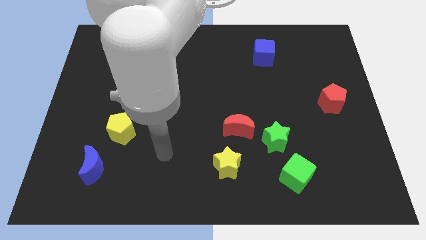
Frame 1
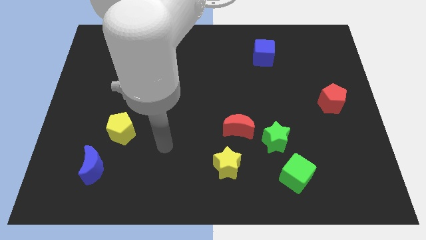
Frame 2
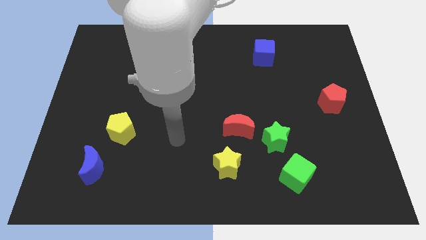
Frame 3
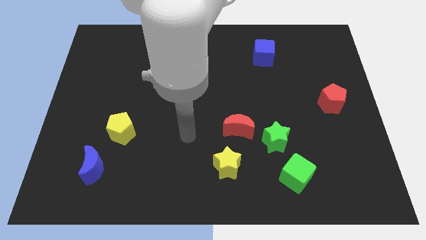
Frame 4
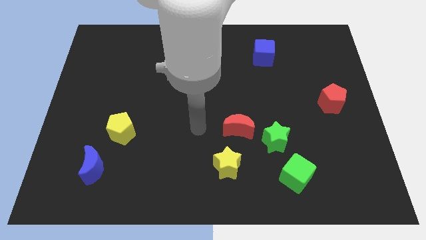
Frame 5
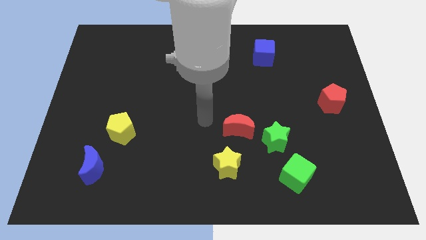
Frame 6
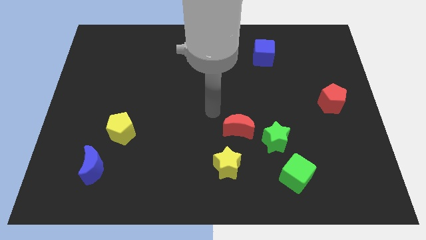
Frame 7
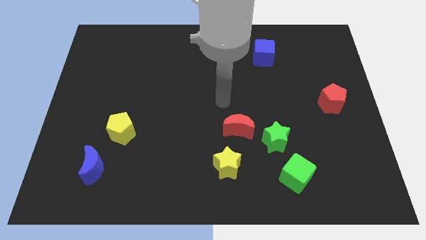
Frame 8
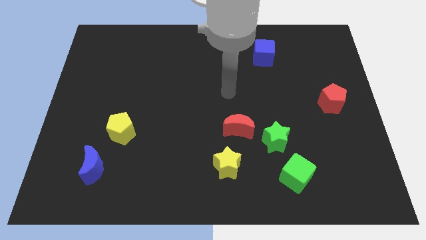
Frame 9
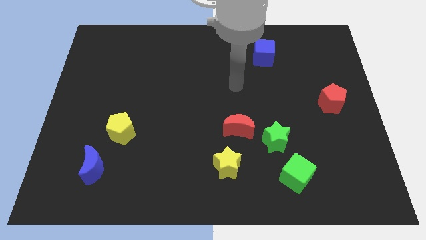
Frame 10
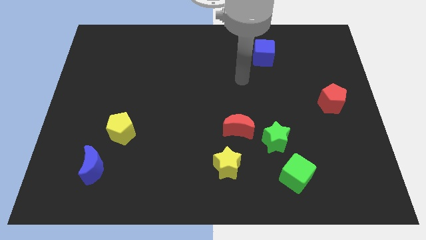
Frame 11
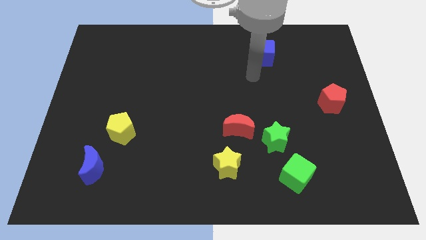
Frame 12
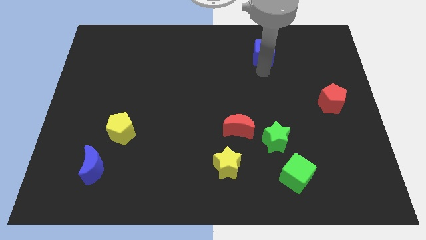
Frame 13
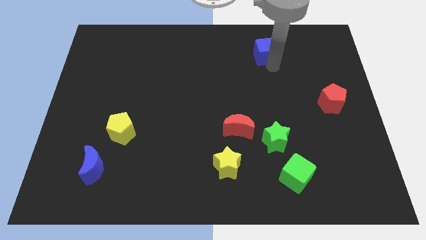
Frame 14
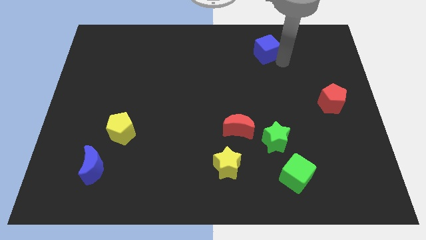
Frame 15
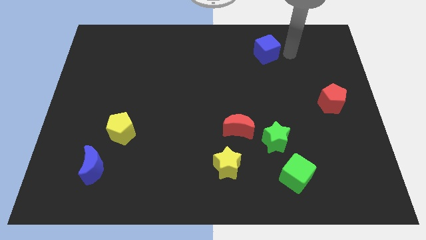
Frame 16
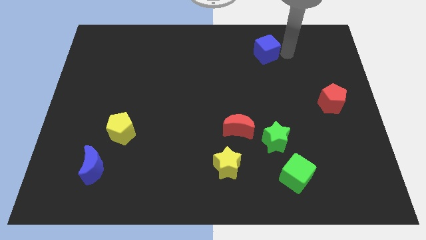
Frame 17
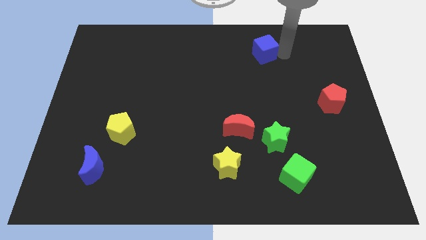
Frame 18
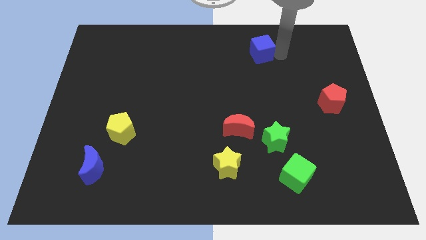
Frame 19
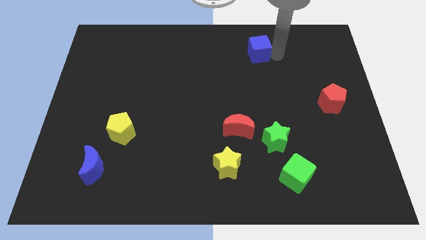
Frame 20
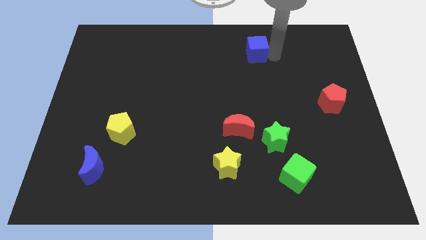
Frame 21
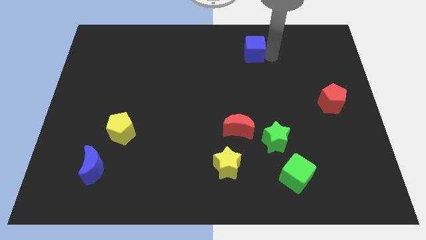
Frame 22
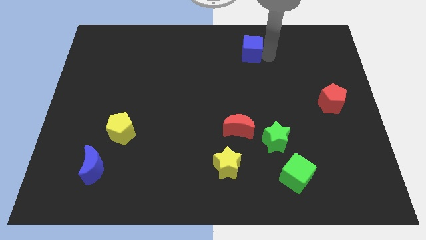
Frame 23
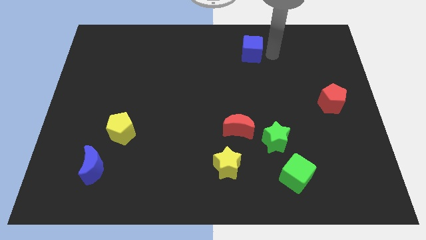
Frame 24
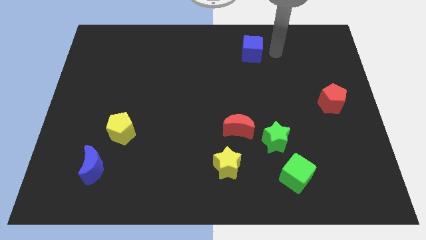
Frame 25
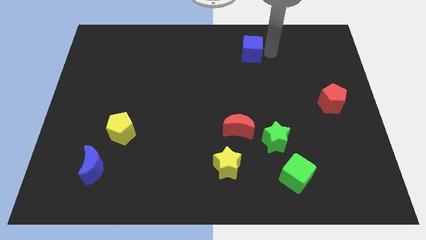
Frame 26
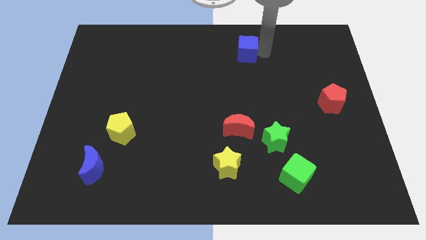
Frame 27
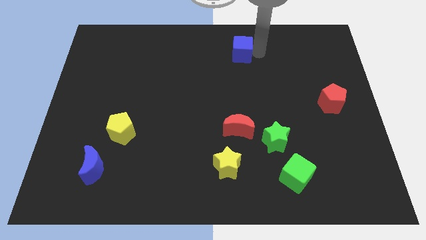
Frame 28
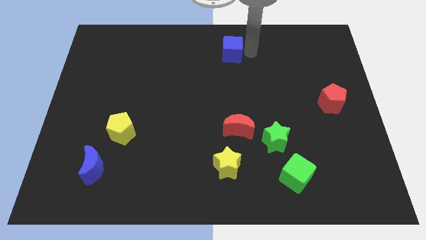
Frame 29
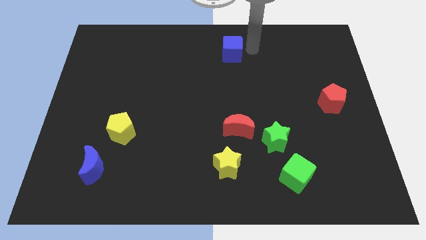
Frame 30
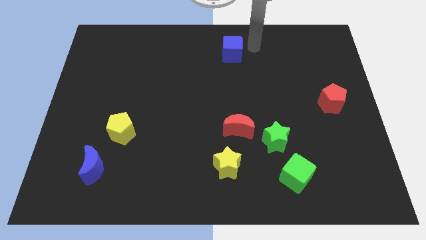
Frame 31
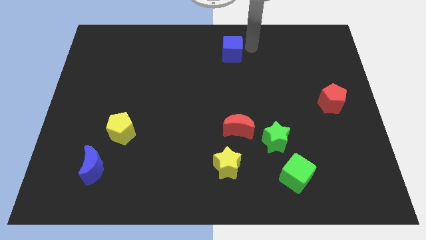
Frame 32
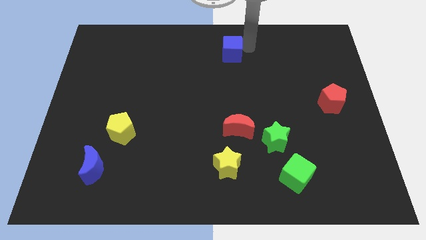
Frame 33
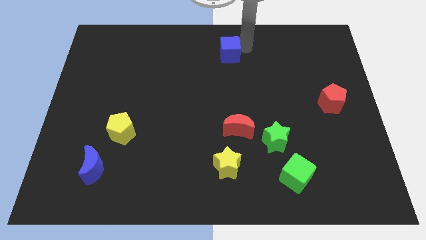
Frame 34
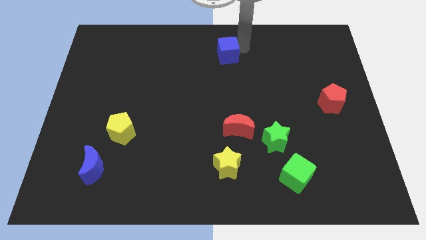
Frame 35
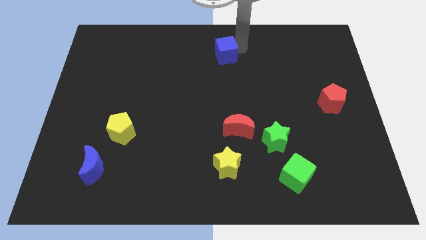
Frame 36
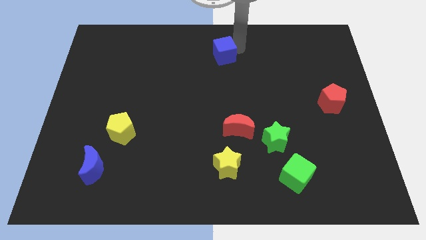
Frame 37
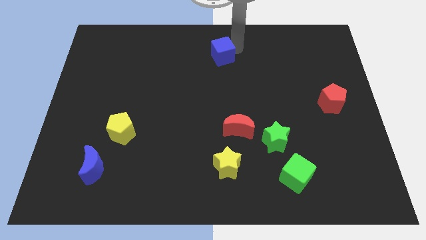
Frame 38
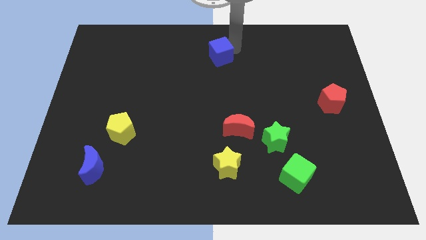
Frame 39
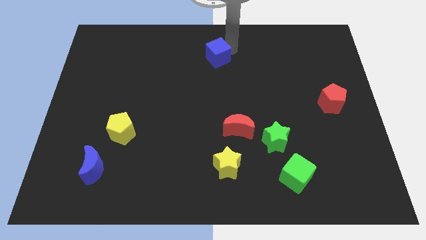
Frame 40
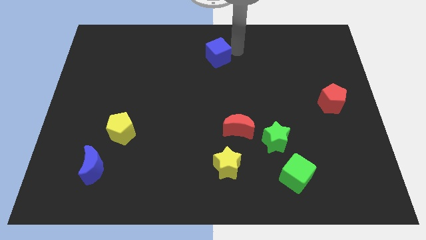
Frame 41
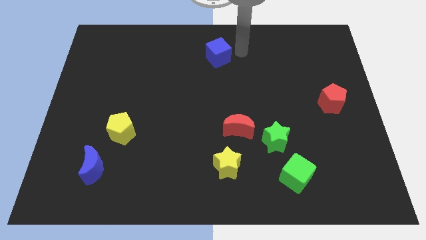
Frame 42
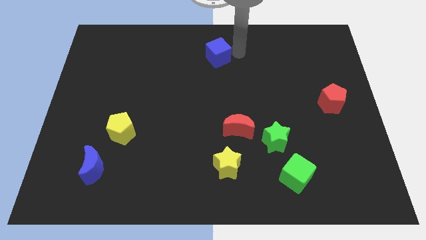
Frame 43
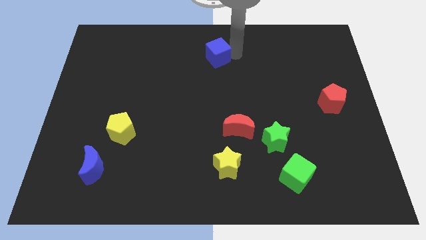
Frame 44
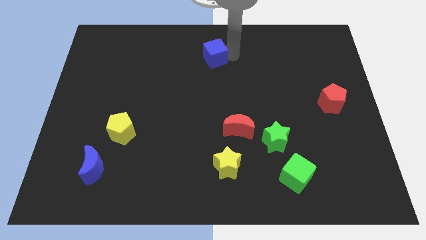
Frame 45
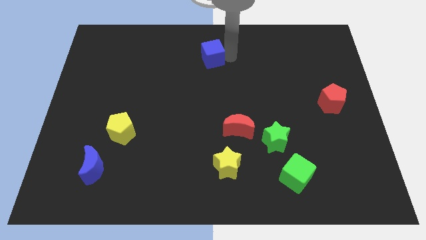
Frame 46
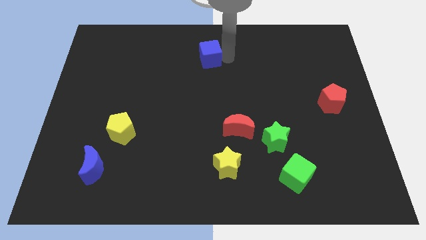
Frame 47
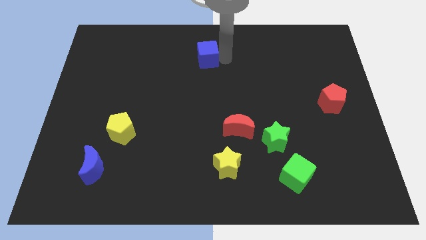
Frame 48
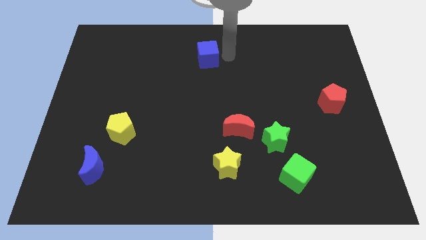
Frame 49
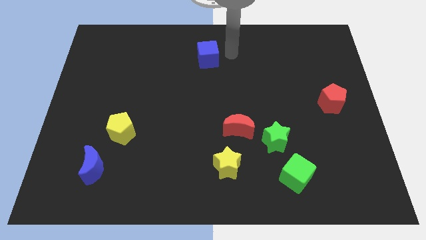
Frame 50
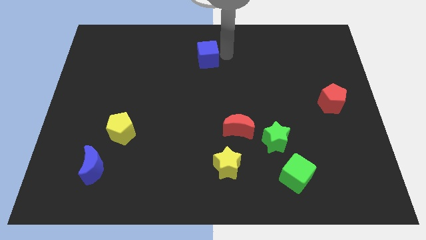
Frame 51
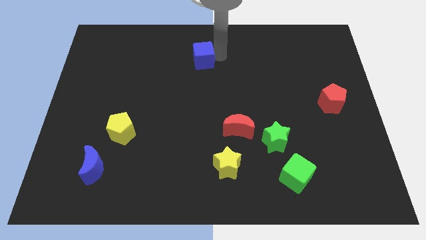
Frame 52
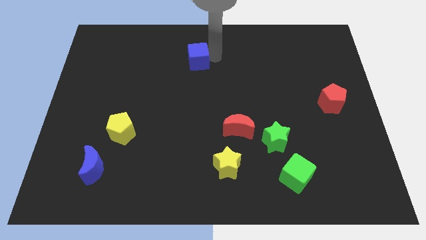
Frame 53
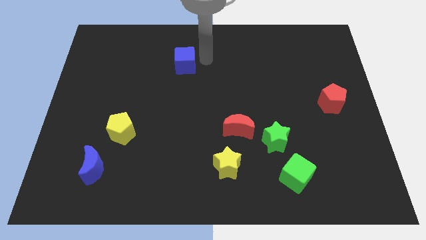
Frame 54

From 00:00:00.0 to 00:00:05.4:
slide the blue cube left

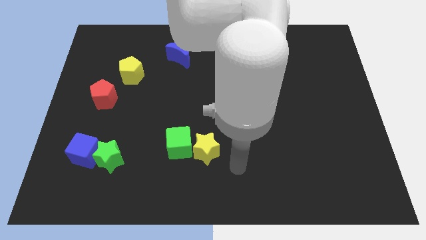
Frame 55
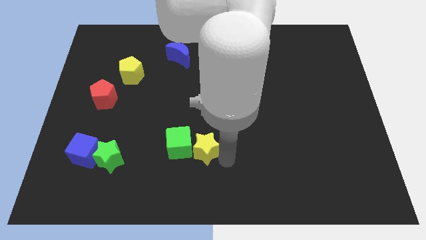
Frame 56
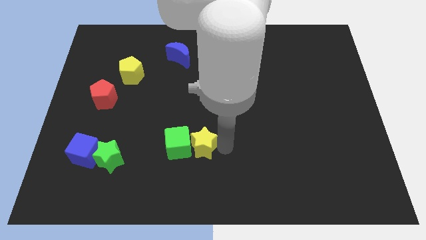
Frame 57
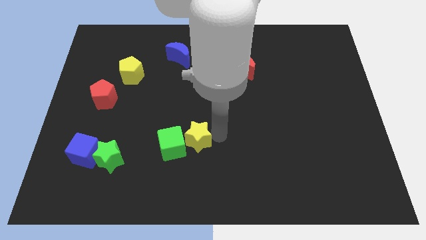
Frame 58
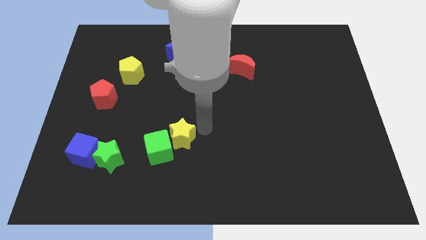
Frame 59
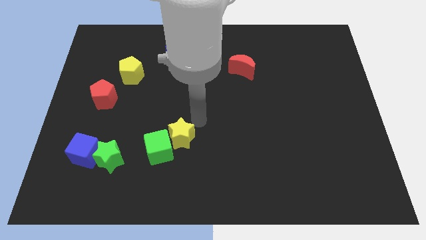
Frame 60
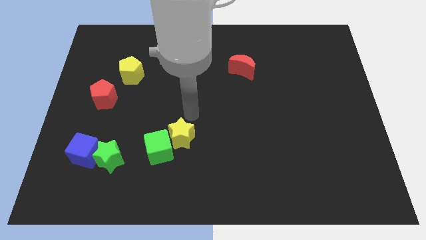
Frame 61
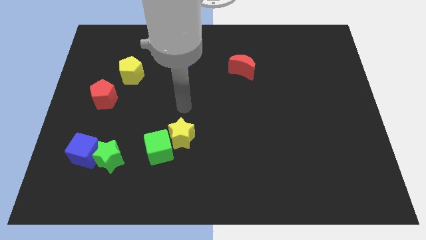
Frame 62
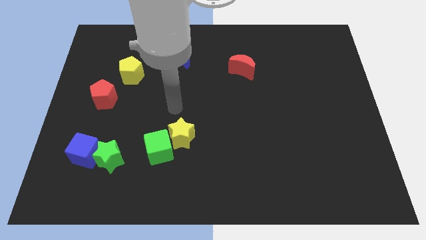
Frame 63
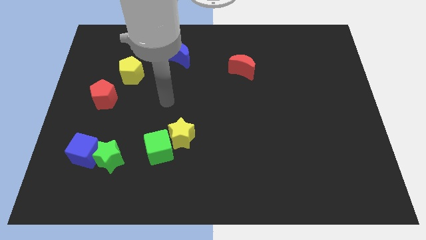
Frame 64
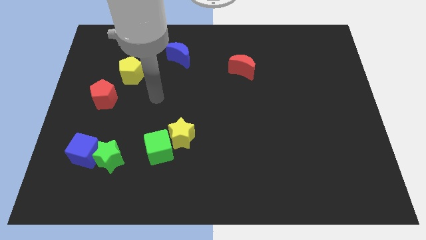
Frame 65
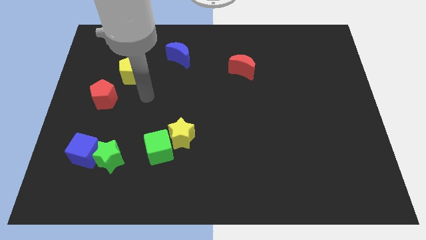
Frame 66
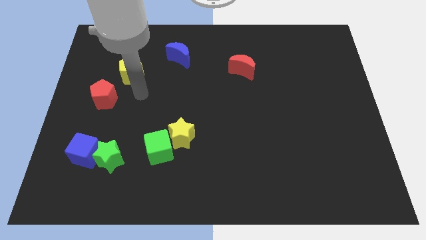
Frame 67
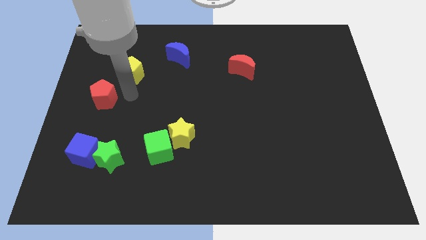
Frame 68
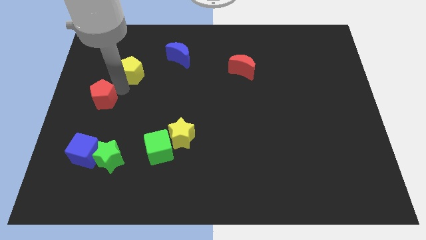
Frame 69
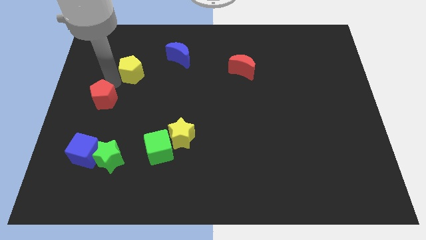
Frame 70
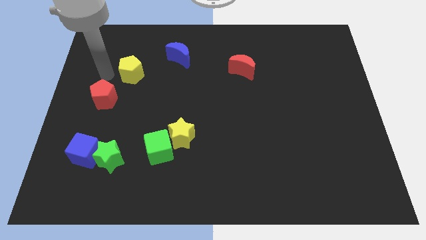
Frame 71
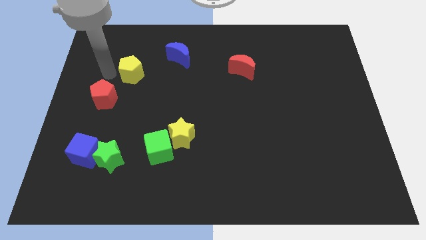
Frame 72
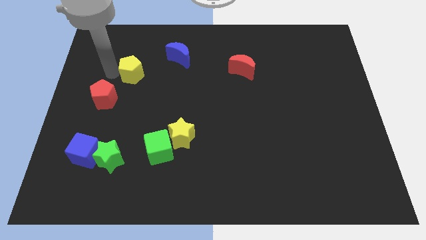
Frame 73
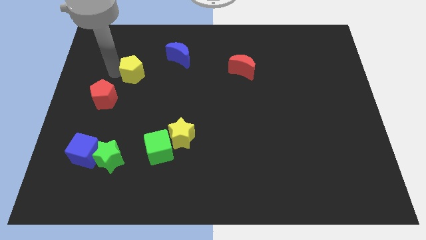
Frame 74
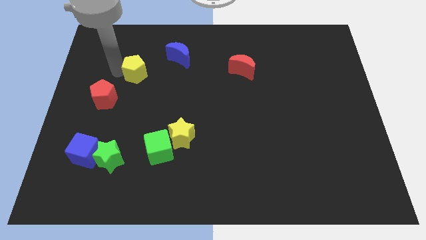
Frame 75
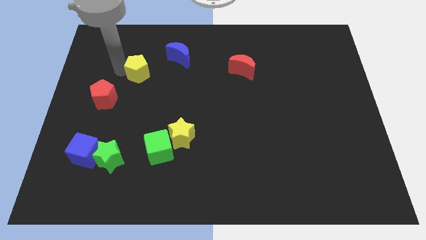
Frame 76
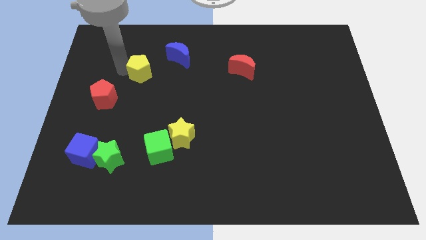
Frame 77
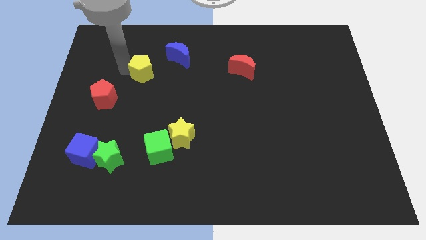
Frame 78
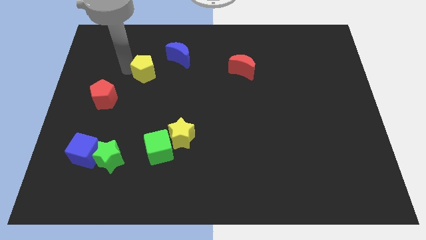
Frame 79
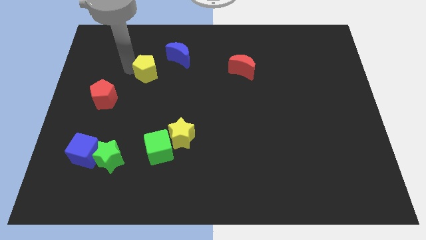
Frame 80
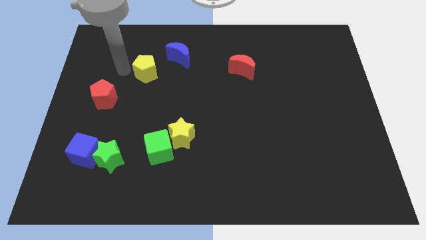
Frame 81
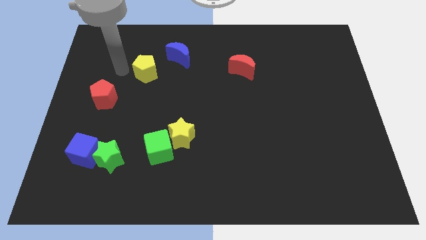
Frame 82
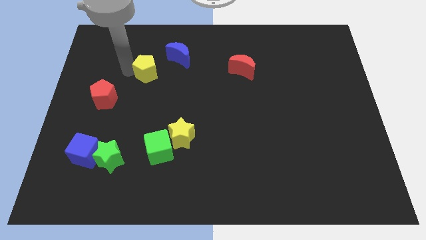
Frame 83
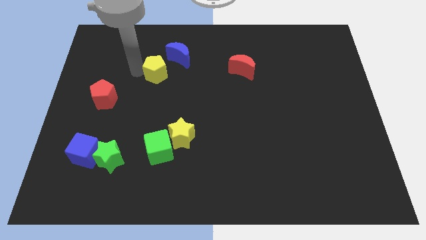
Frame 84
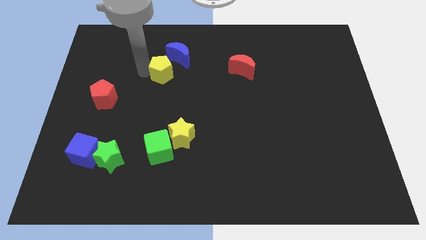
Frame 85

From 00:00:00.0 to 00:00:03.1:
slide the yellow pentagon a little to the right
